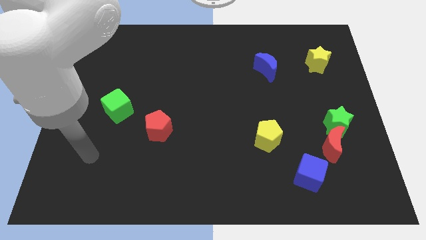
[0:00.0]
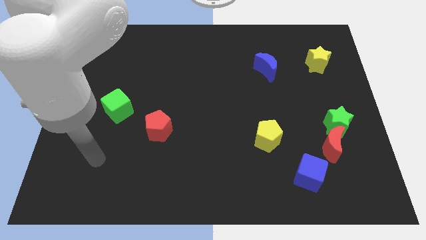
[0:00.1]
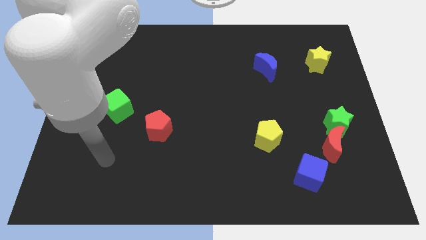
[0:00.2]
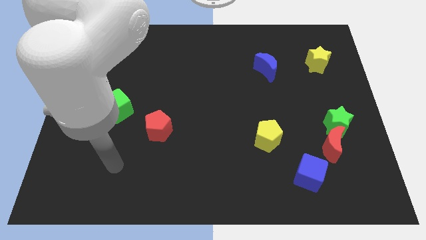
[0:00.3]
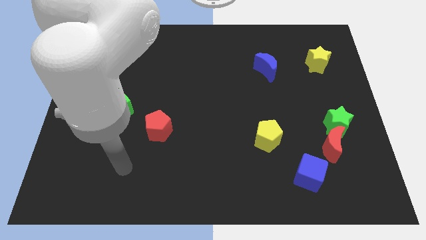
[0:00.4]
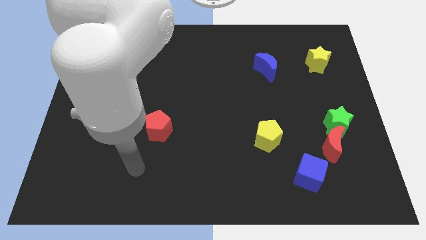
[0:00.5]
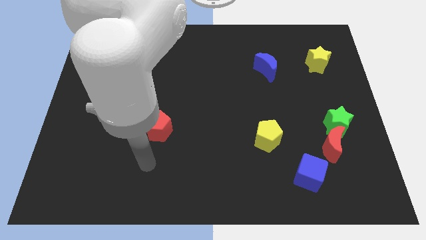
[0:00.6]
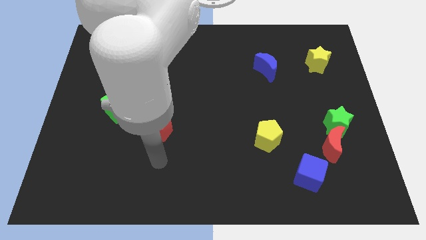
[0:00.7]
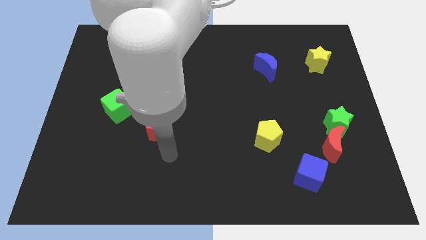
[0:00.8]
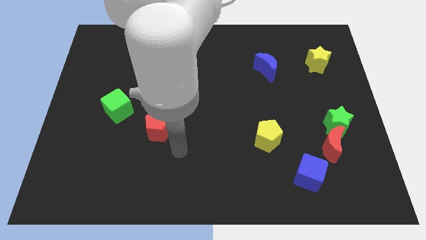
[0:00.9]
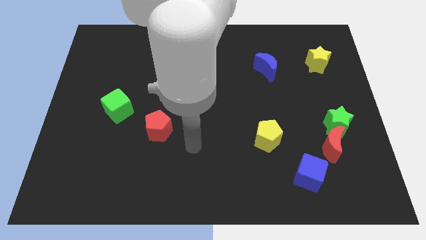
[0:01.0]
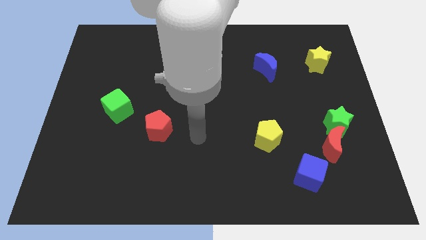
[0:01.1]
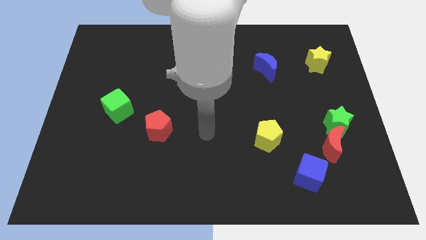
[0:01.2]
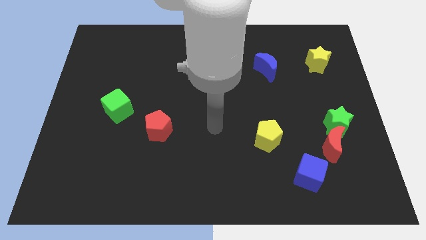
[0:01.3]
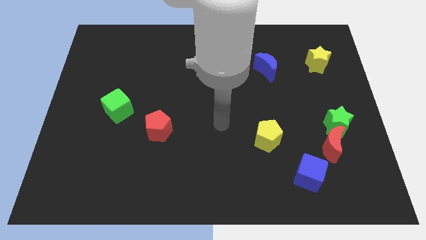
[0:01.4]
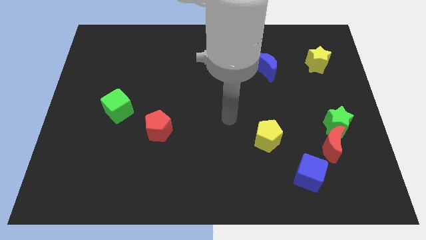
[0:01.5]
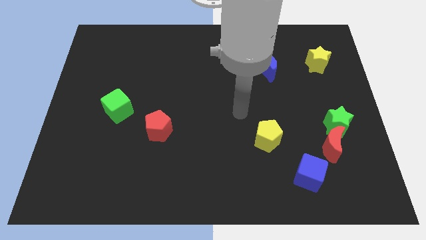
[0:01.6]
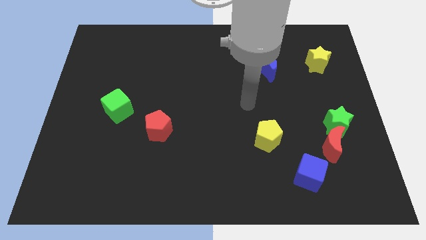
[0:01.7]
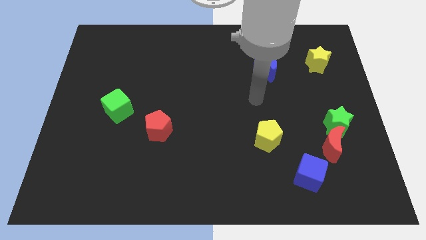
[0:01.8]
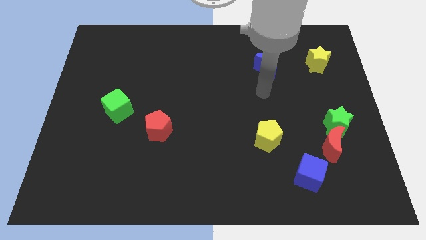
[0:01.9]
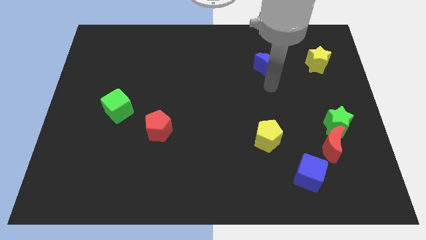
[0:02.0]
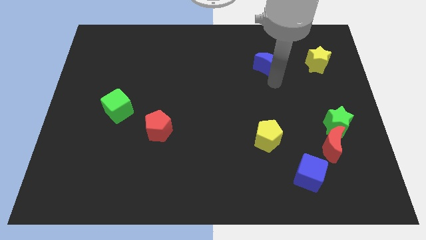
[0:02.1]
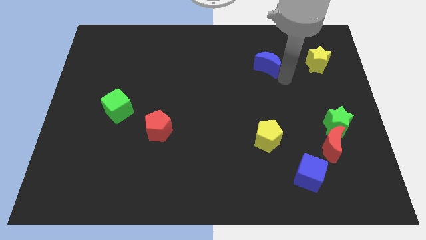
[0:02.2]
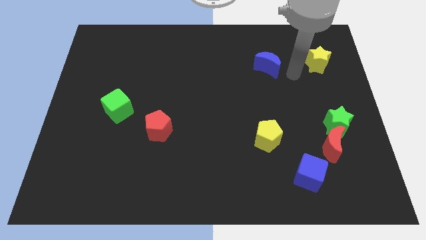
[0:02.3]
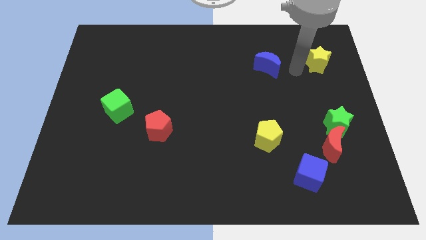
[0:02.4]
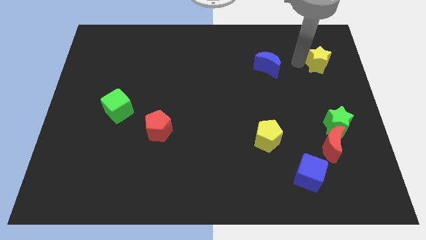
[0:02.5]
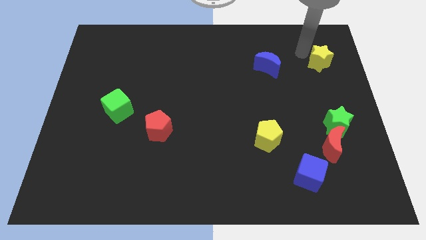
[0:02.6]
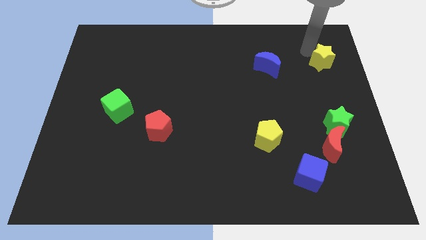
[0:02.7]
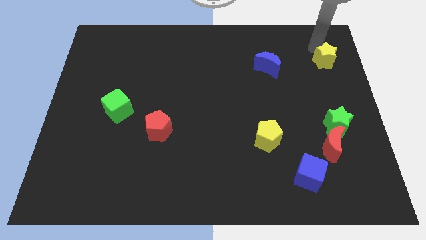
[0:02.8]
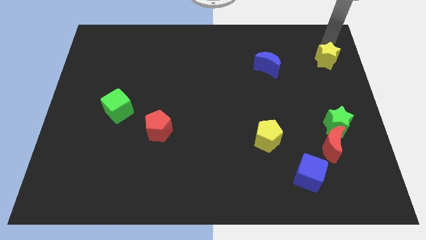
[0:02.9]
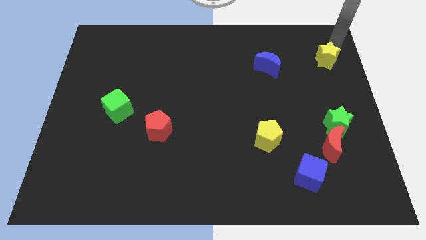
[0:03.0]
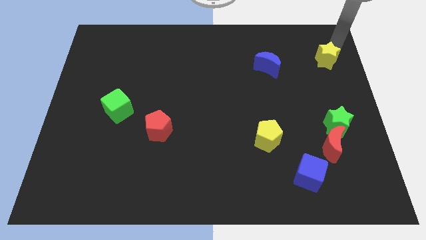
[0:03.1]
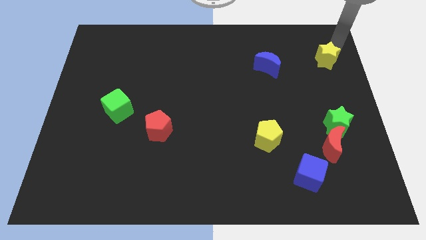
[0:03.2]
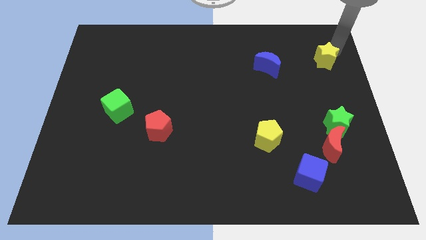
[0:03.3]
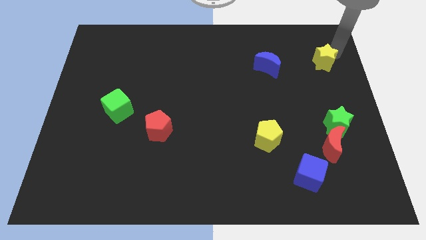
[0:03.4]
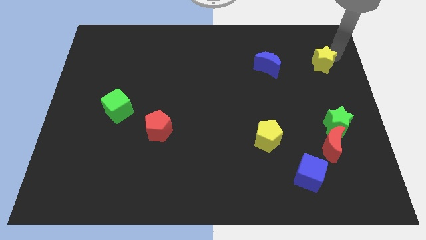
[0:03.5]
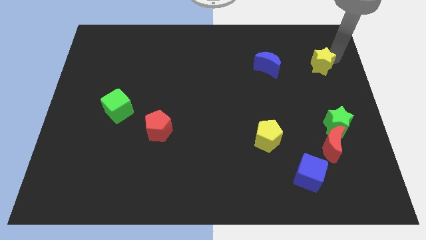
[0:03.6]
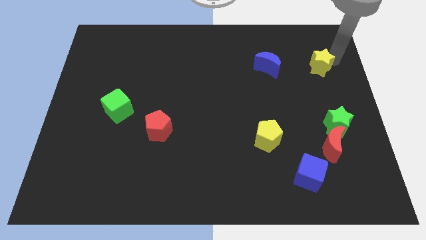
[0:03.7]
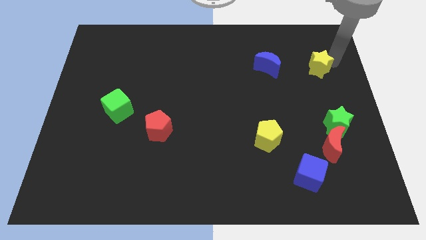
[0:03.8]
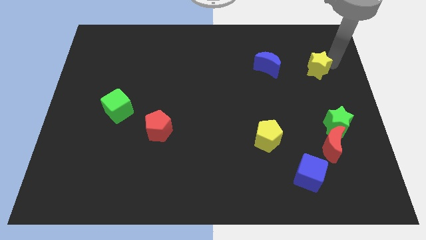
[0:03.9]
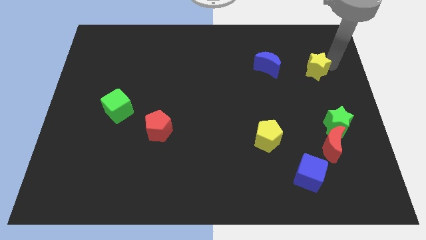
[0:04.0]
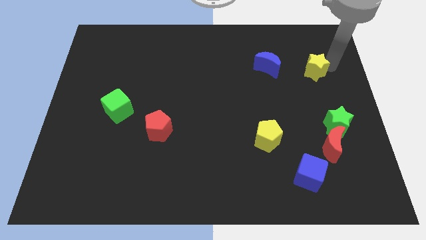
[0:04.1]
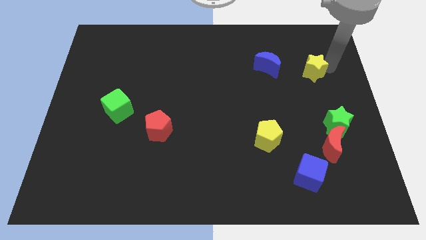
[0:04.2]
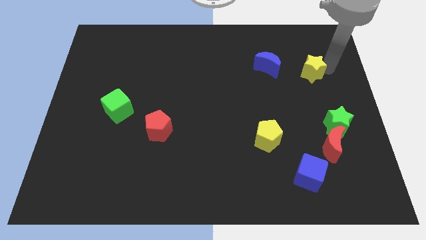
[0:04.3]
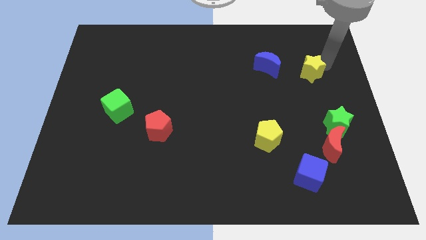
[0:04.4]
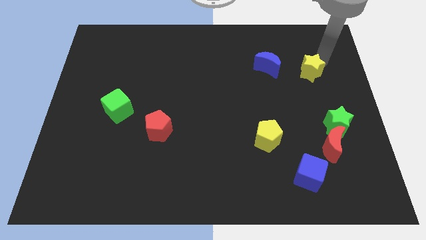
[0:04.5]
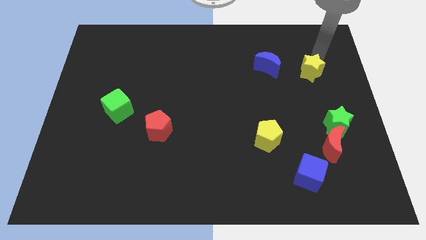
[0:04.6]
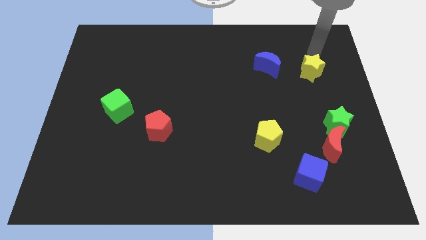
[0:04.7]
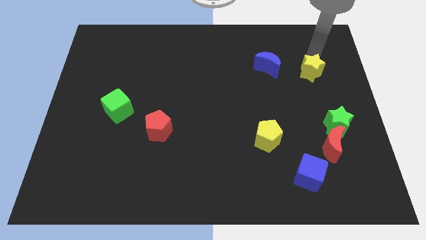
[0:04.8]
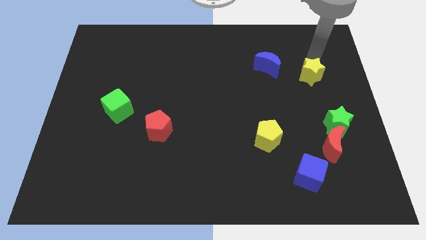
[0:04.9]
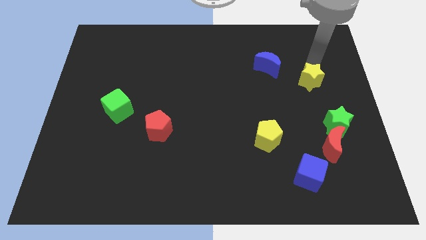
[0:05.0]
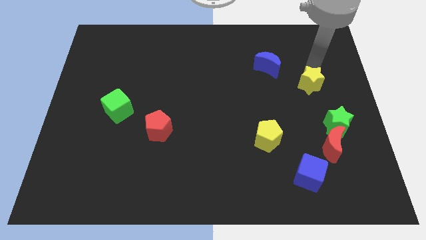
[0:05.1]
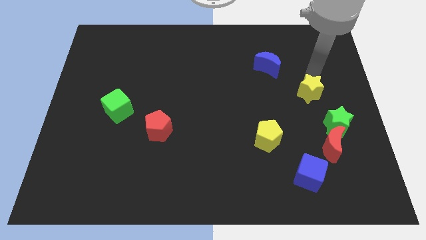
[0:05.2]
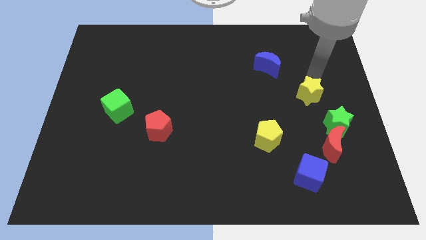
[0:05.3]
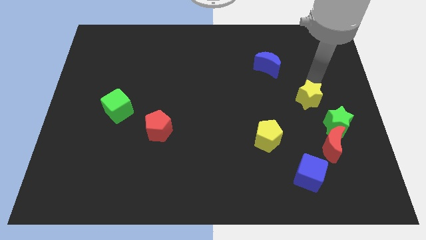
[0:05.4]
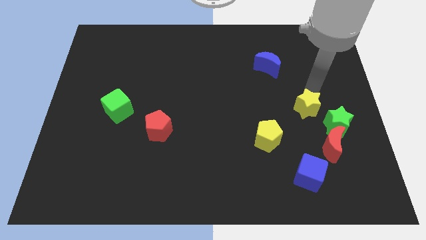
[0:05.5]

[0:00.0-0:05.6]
push the yellow star to the left side of the green star

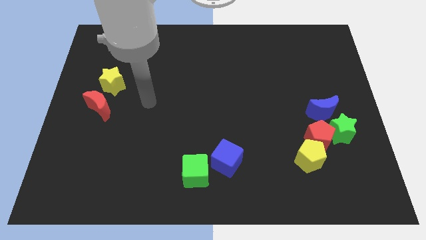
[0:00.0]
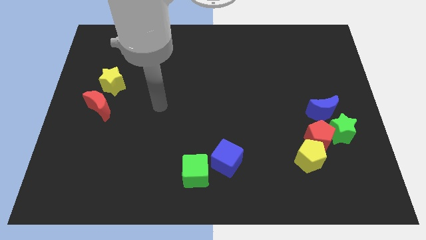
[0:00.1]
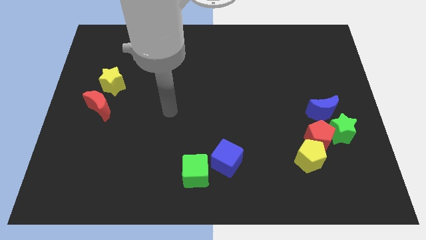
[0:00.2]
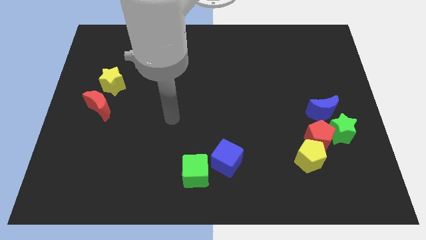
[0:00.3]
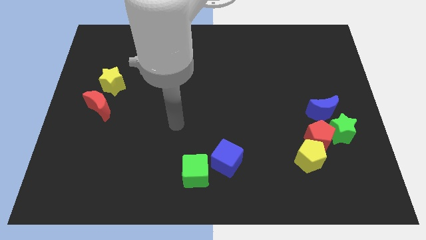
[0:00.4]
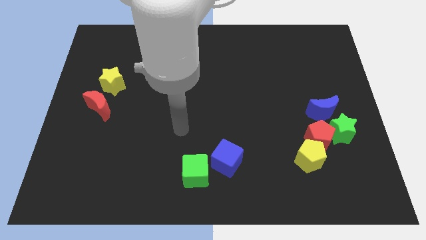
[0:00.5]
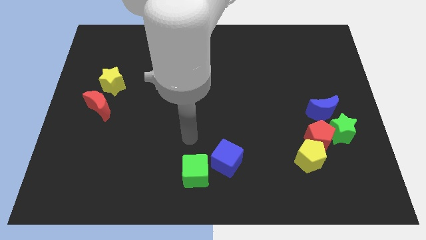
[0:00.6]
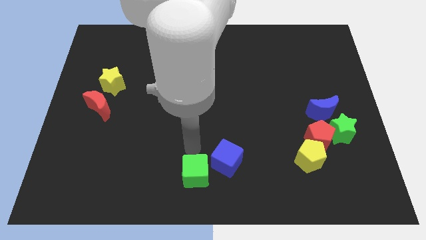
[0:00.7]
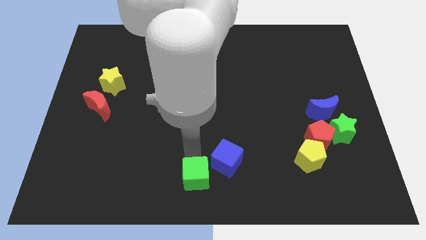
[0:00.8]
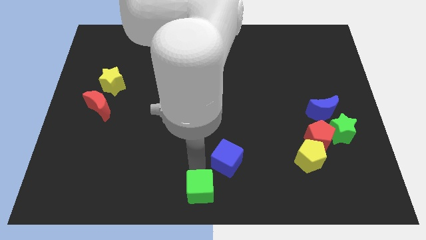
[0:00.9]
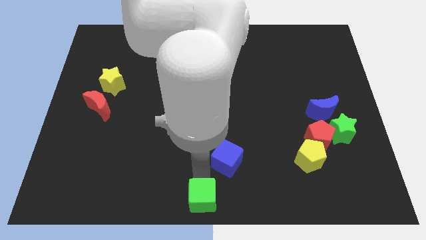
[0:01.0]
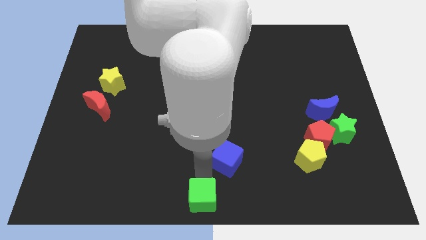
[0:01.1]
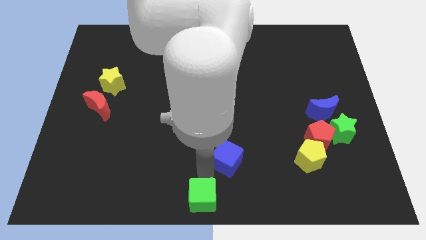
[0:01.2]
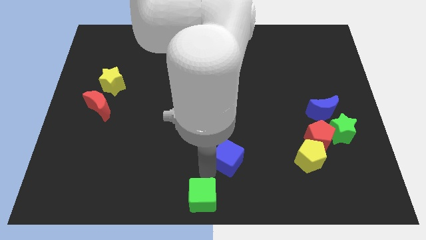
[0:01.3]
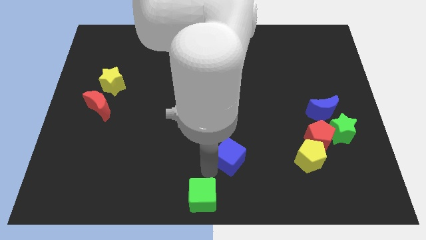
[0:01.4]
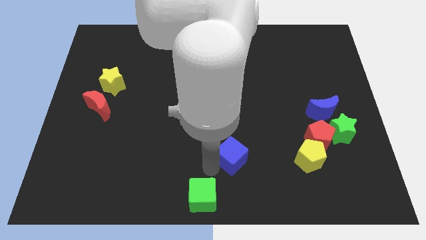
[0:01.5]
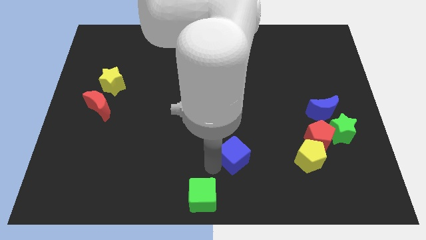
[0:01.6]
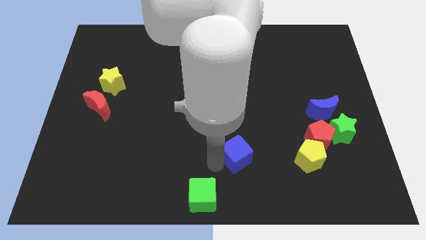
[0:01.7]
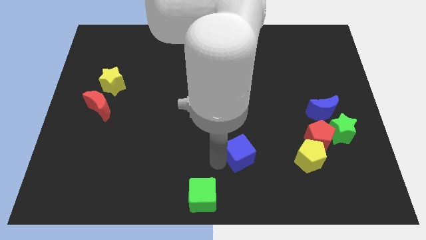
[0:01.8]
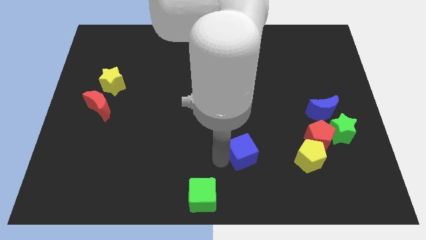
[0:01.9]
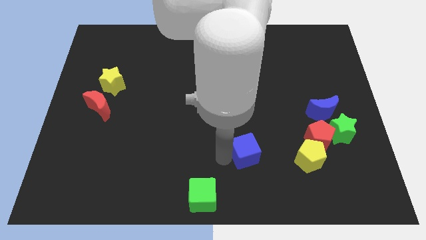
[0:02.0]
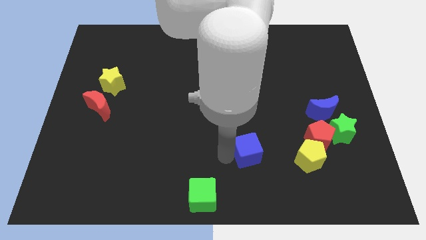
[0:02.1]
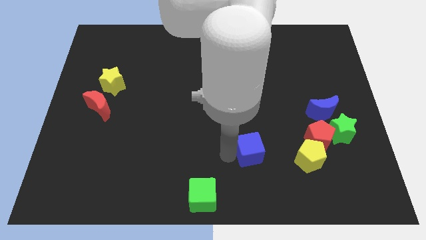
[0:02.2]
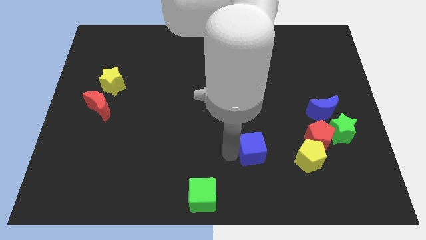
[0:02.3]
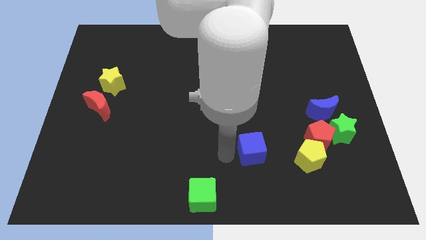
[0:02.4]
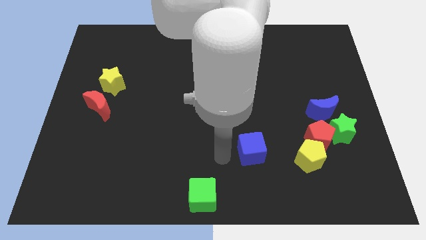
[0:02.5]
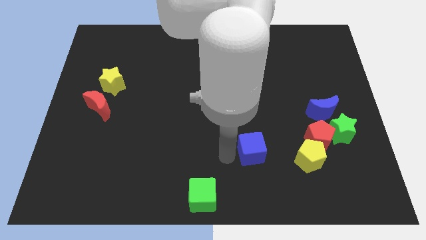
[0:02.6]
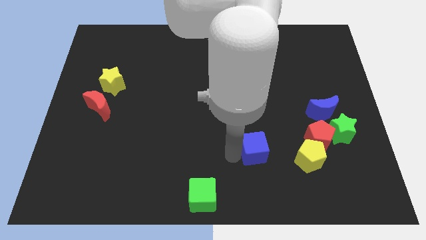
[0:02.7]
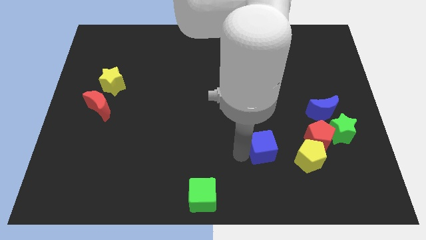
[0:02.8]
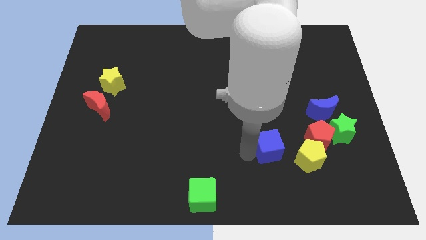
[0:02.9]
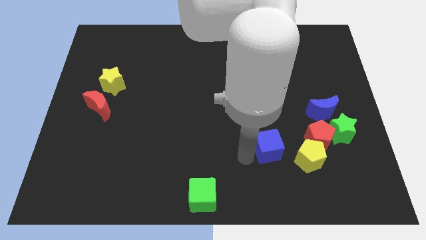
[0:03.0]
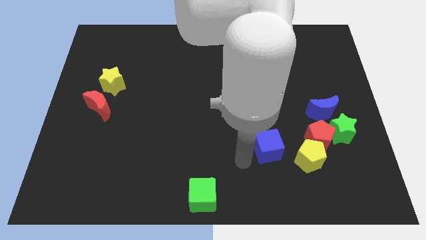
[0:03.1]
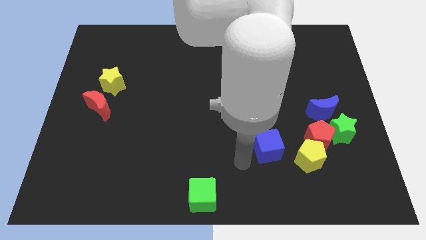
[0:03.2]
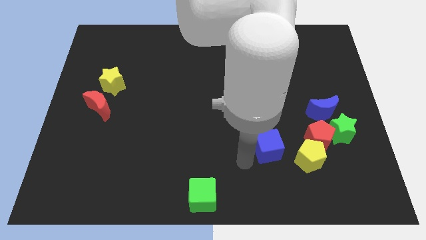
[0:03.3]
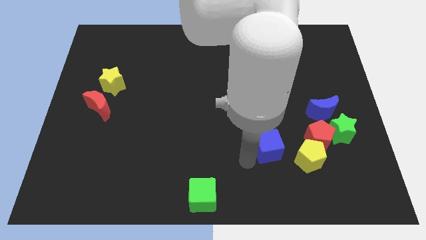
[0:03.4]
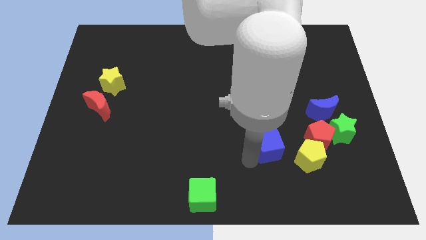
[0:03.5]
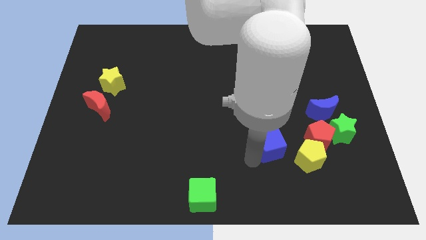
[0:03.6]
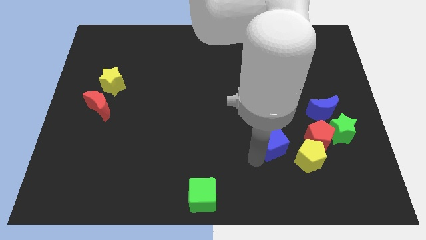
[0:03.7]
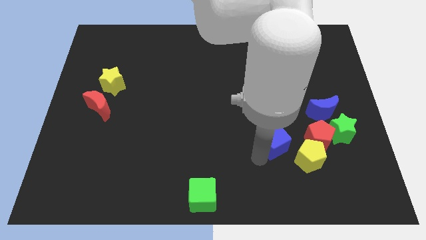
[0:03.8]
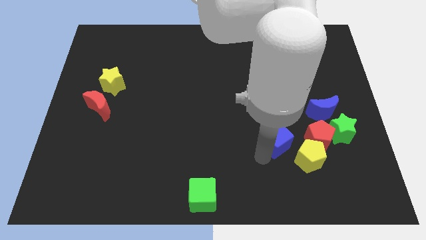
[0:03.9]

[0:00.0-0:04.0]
put the blue cube to the left side of the green star
